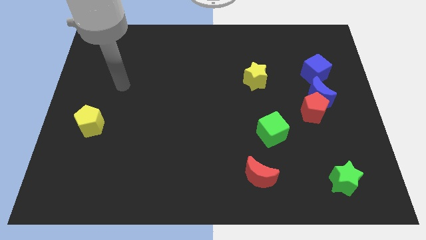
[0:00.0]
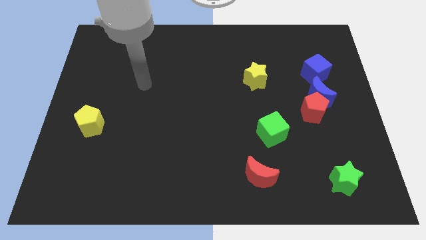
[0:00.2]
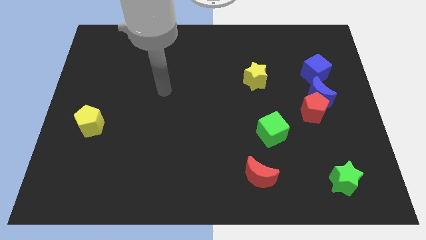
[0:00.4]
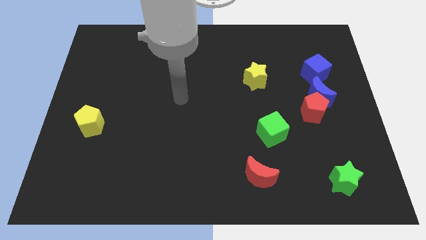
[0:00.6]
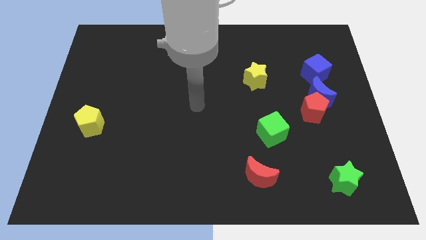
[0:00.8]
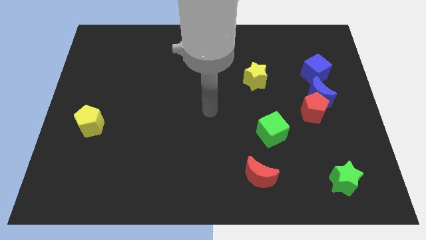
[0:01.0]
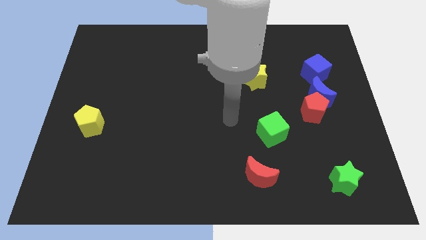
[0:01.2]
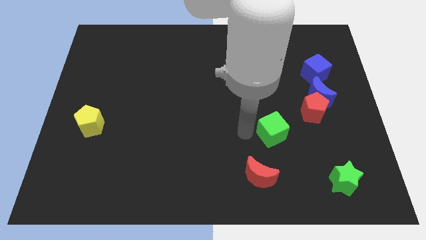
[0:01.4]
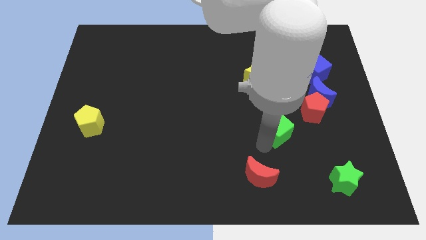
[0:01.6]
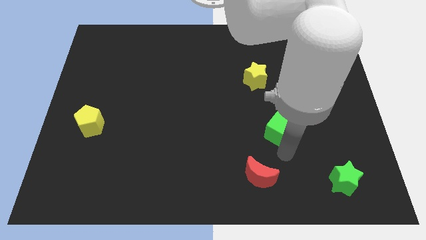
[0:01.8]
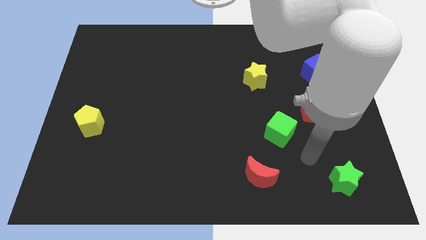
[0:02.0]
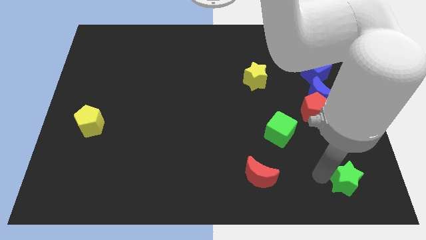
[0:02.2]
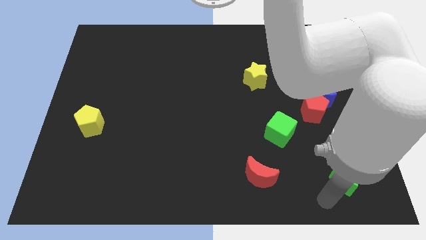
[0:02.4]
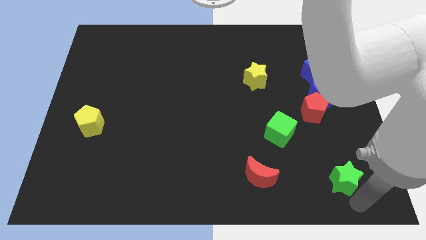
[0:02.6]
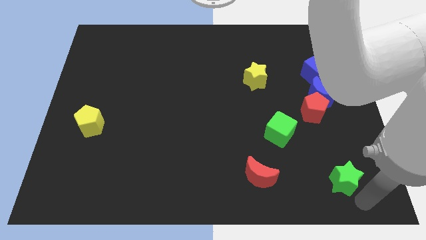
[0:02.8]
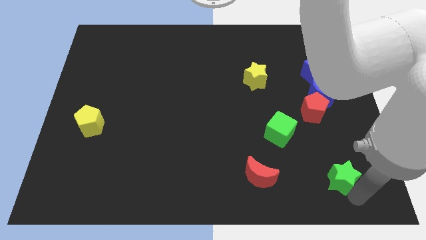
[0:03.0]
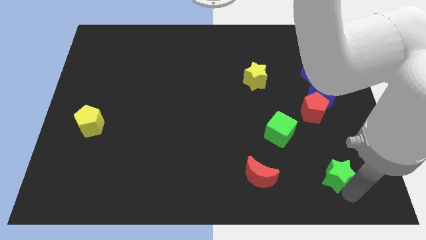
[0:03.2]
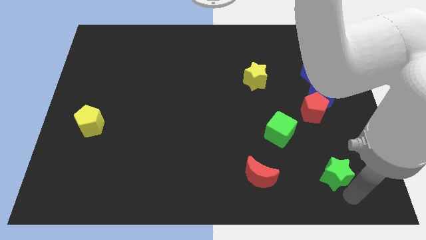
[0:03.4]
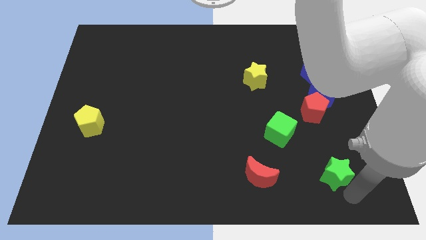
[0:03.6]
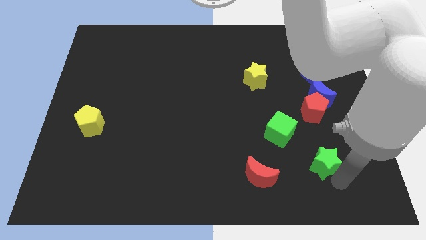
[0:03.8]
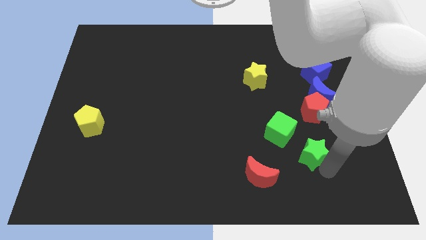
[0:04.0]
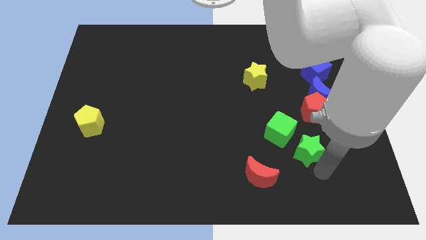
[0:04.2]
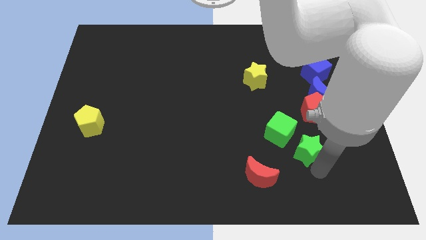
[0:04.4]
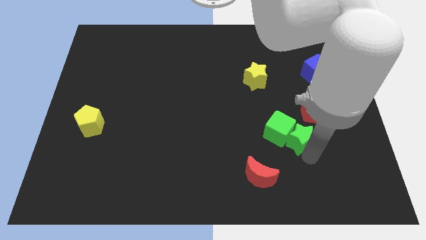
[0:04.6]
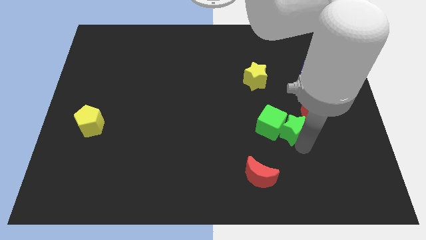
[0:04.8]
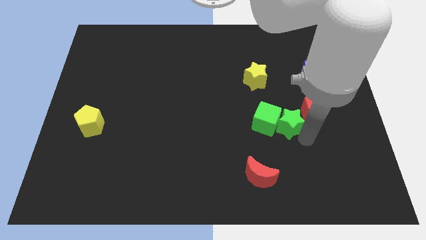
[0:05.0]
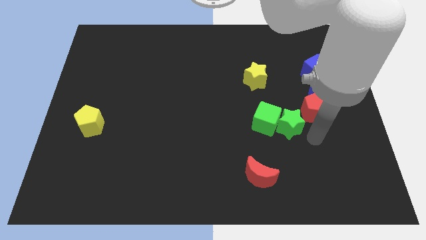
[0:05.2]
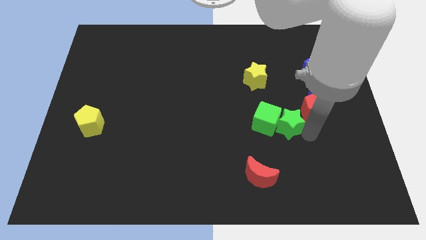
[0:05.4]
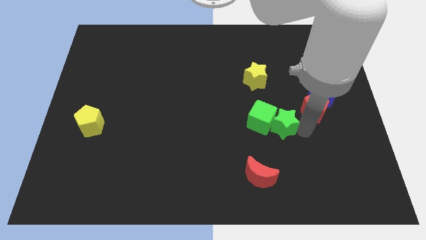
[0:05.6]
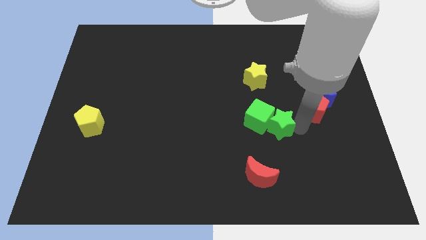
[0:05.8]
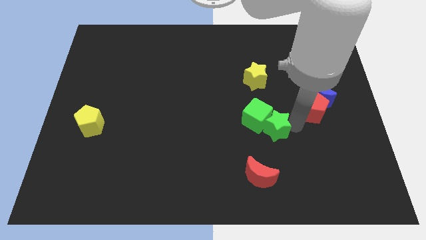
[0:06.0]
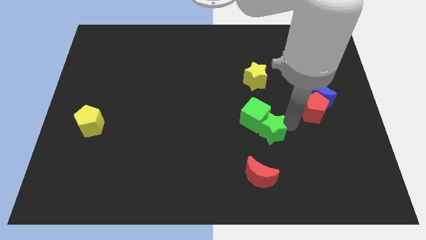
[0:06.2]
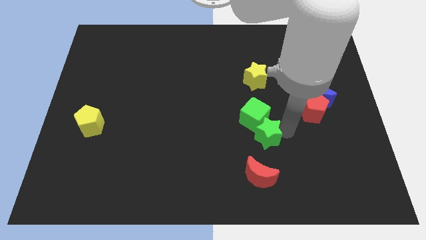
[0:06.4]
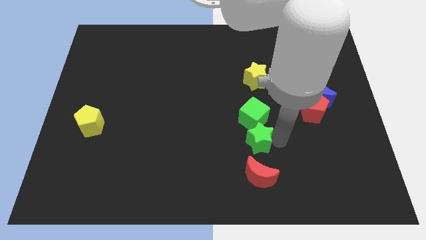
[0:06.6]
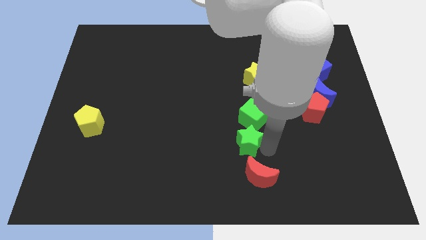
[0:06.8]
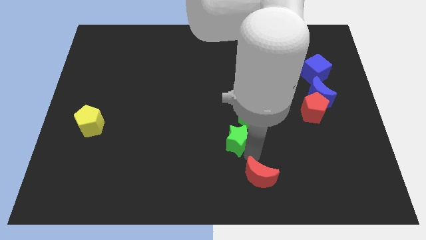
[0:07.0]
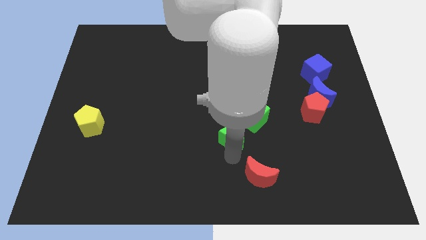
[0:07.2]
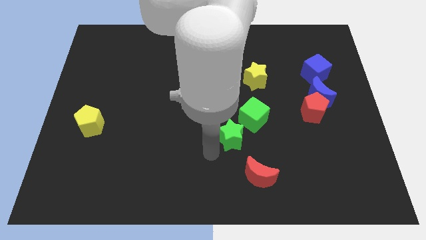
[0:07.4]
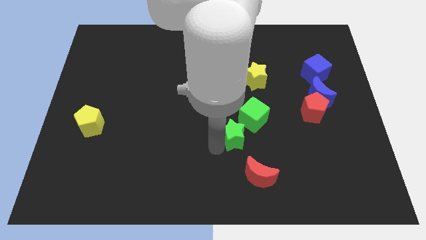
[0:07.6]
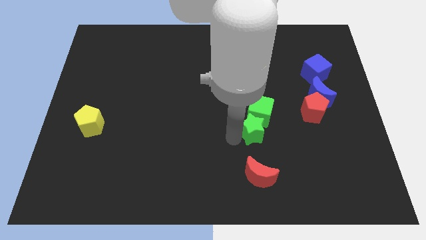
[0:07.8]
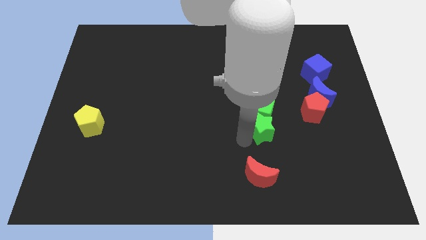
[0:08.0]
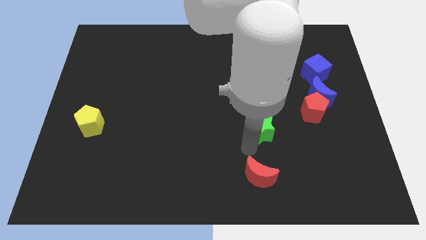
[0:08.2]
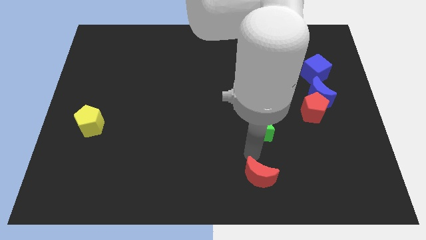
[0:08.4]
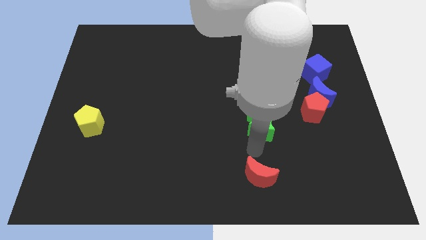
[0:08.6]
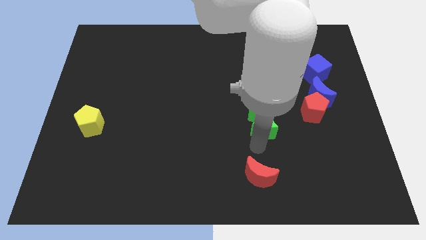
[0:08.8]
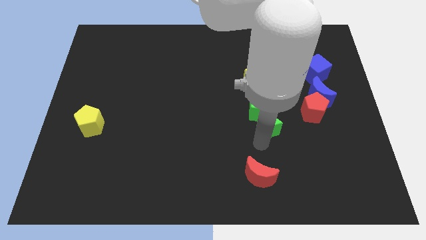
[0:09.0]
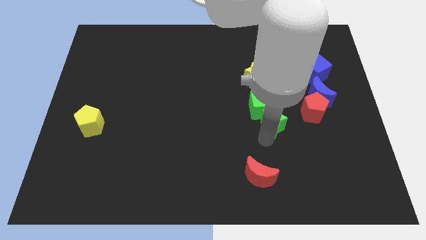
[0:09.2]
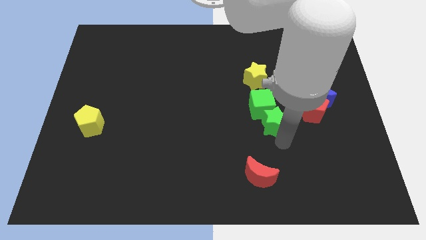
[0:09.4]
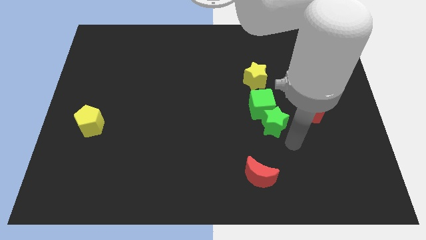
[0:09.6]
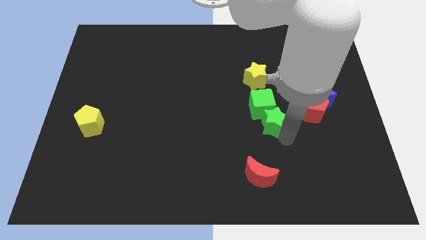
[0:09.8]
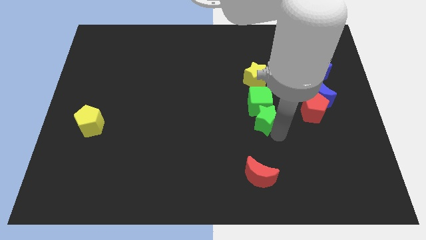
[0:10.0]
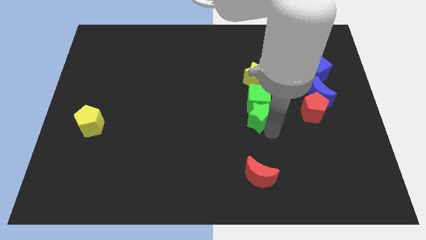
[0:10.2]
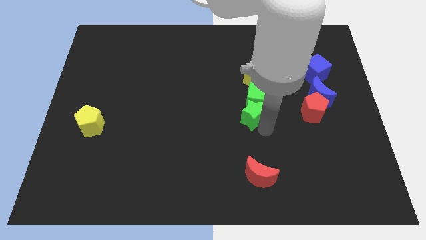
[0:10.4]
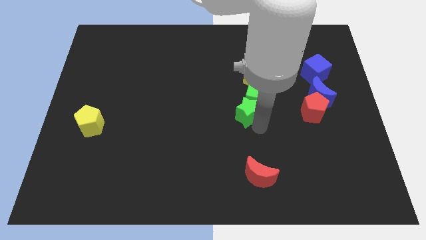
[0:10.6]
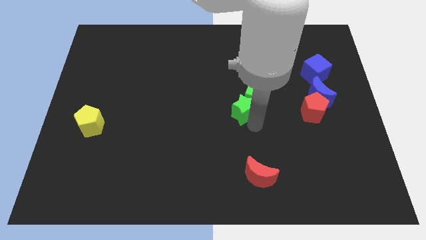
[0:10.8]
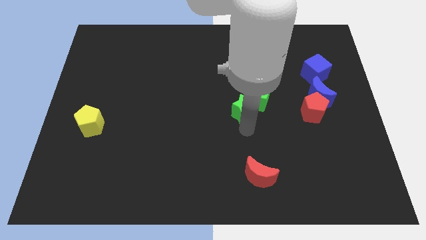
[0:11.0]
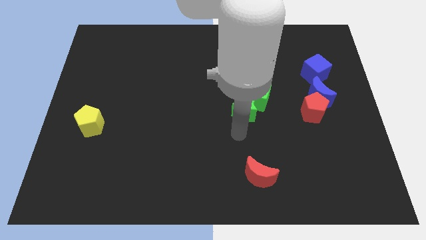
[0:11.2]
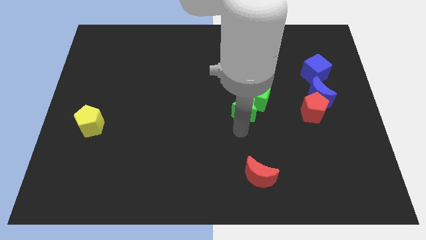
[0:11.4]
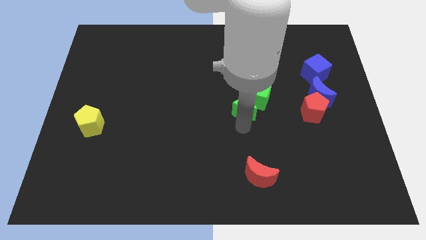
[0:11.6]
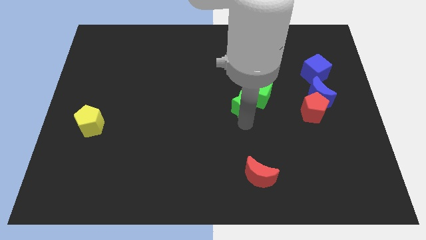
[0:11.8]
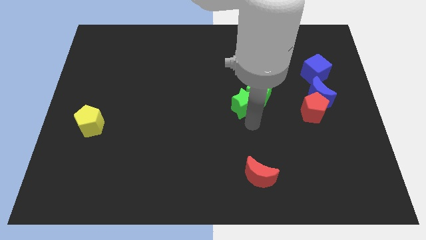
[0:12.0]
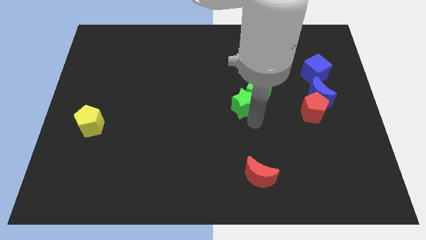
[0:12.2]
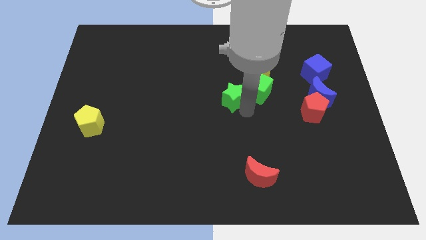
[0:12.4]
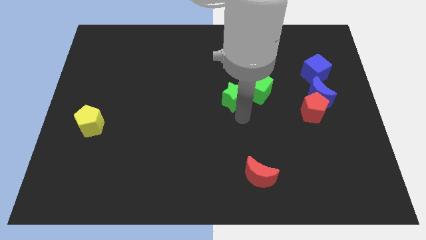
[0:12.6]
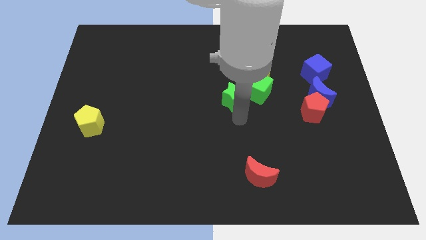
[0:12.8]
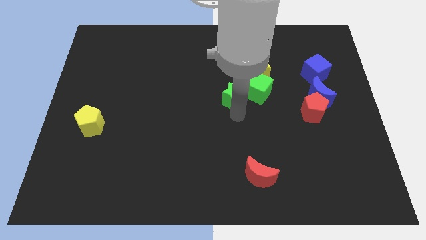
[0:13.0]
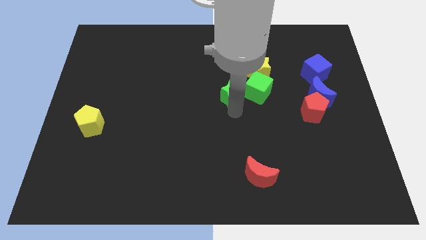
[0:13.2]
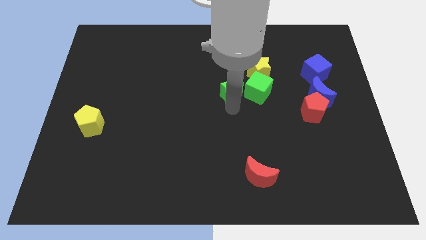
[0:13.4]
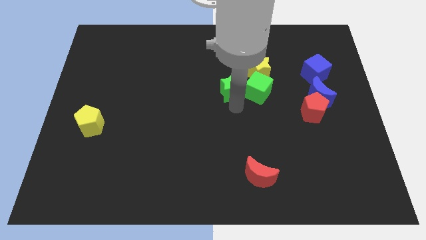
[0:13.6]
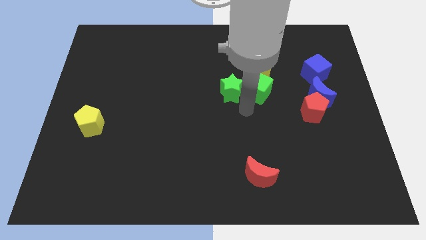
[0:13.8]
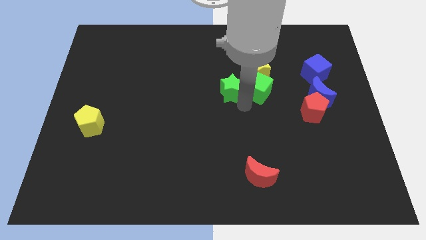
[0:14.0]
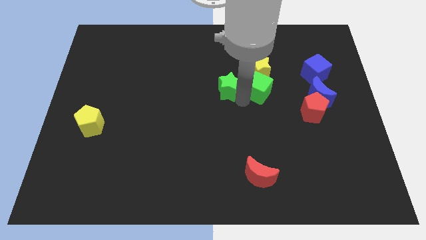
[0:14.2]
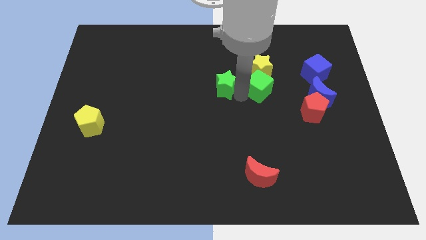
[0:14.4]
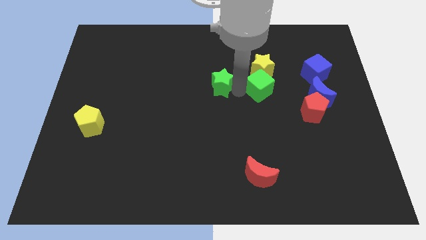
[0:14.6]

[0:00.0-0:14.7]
put the green star to the left side of the yellow star

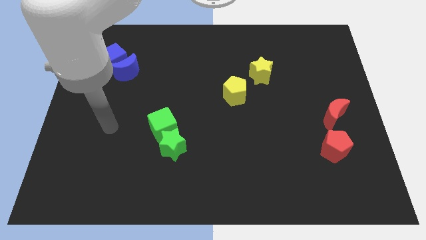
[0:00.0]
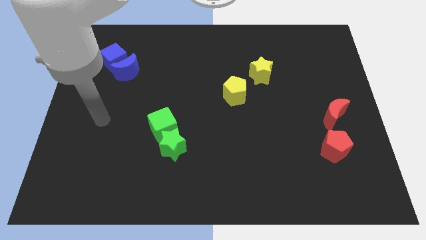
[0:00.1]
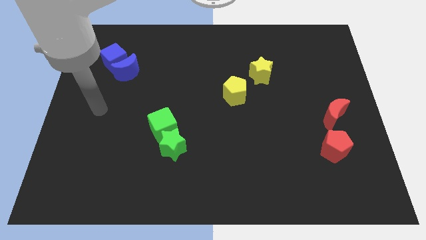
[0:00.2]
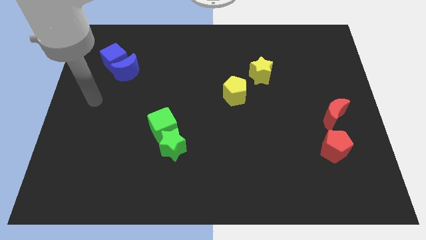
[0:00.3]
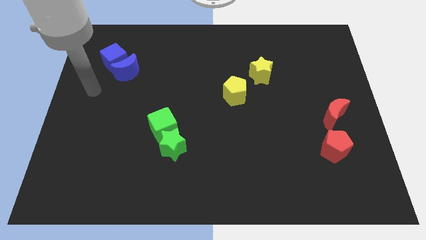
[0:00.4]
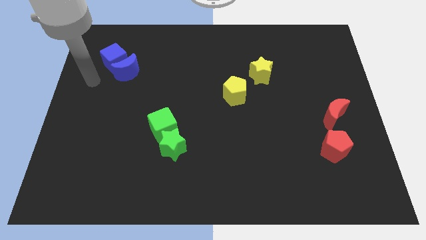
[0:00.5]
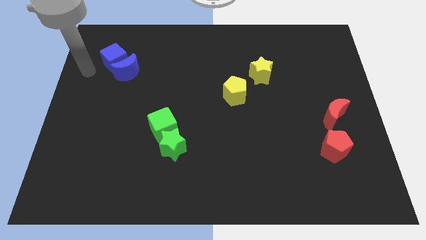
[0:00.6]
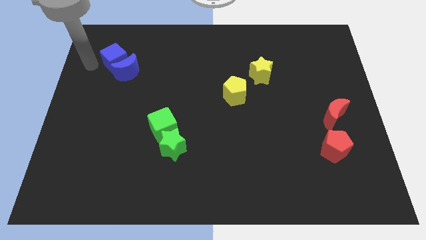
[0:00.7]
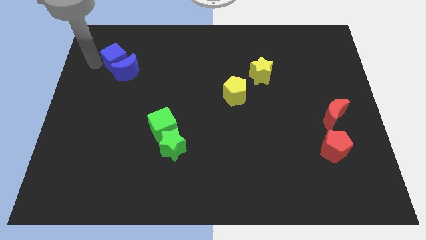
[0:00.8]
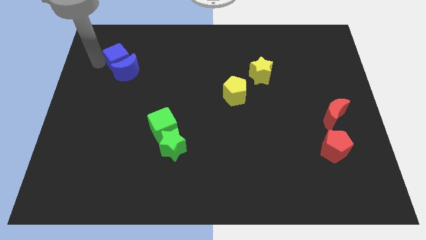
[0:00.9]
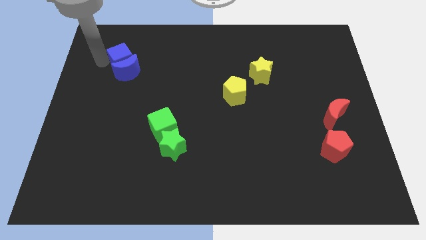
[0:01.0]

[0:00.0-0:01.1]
move the blue cube to the top right side of the blue moon
